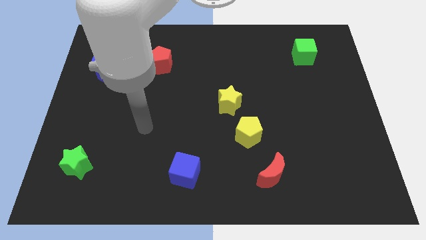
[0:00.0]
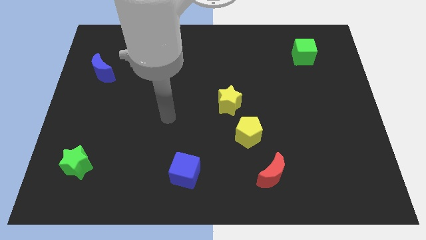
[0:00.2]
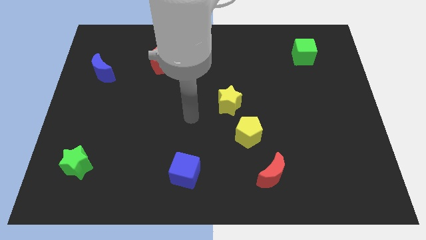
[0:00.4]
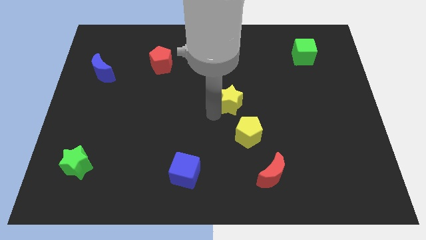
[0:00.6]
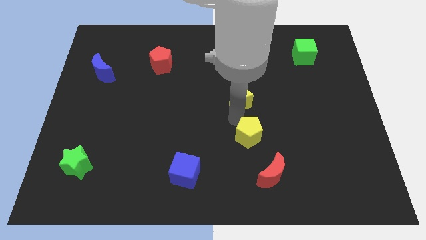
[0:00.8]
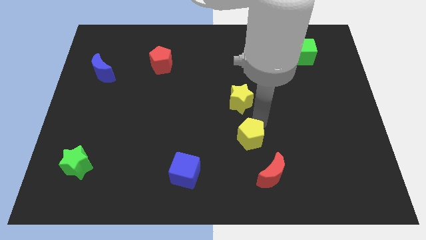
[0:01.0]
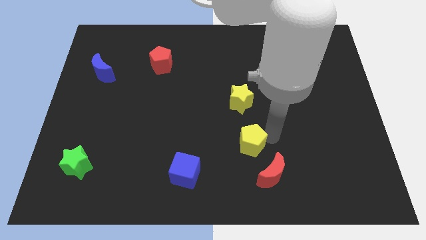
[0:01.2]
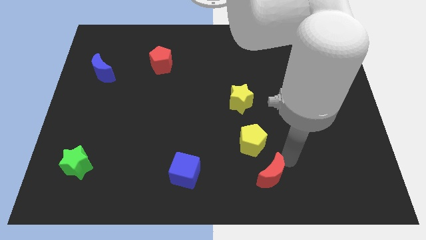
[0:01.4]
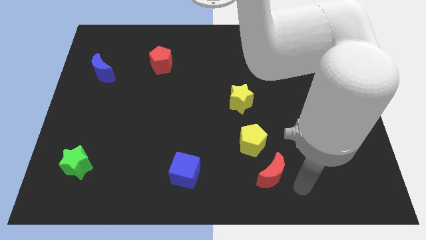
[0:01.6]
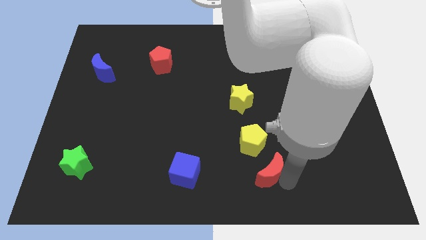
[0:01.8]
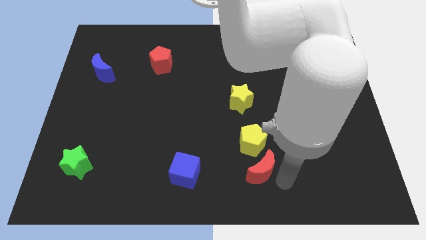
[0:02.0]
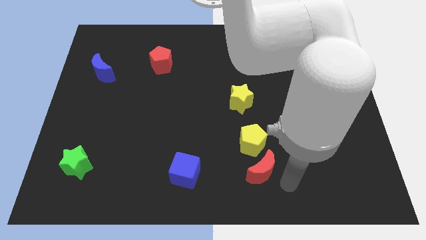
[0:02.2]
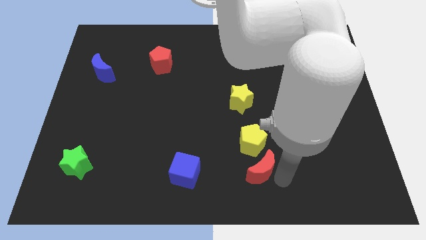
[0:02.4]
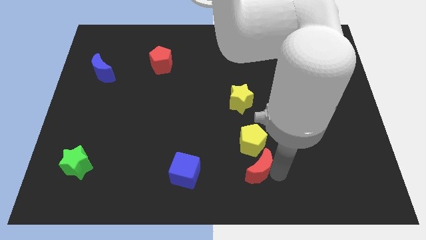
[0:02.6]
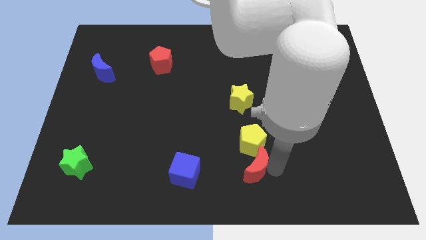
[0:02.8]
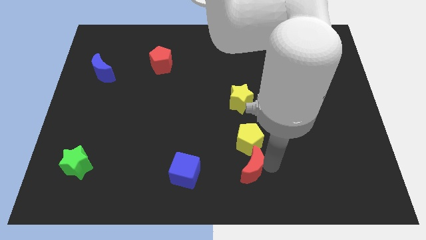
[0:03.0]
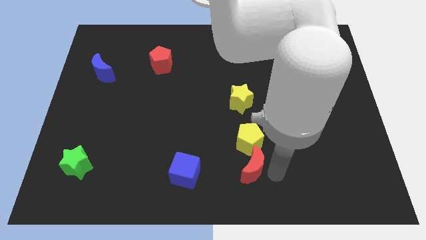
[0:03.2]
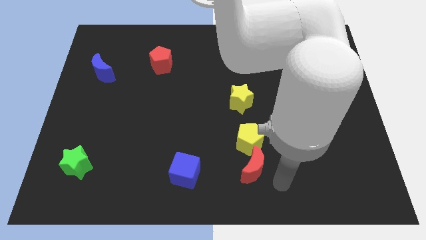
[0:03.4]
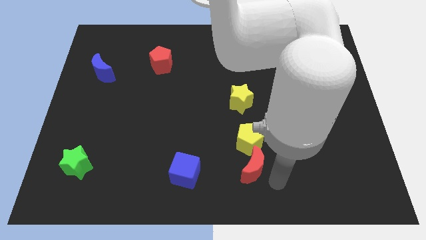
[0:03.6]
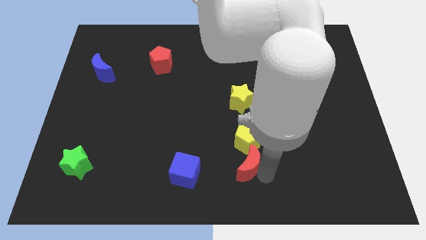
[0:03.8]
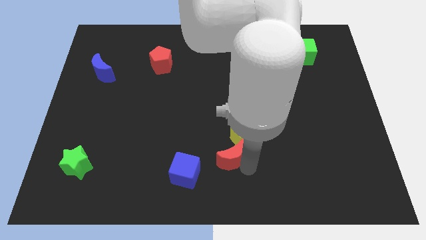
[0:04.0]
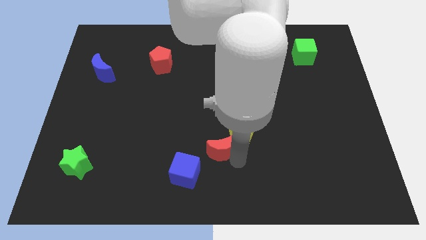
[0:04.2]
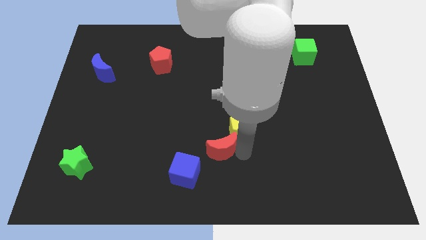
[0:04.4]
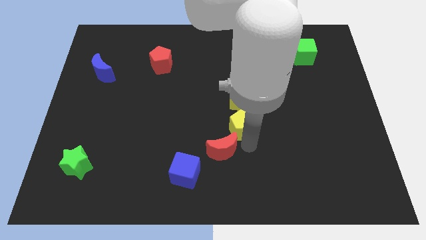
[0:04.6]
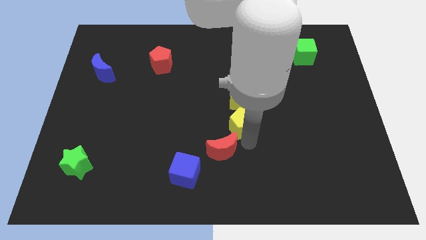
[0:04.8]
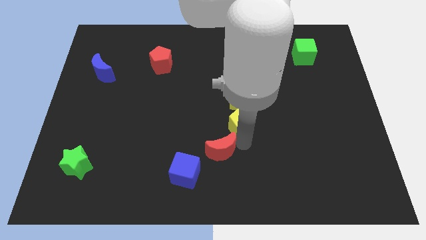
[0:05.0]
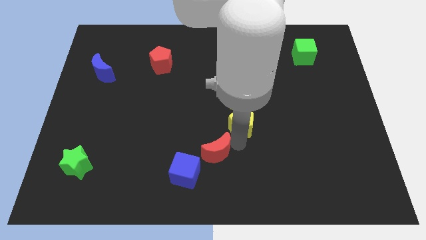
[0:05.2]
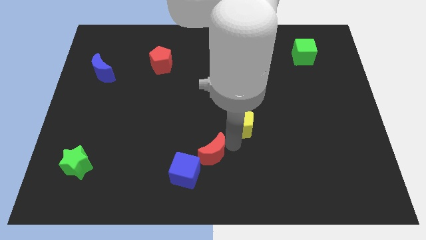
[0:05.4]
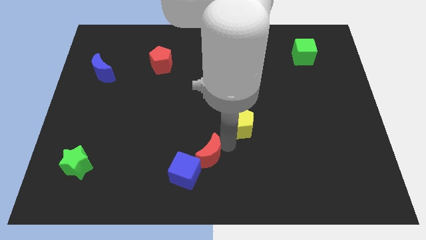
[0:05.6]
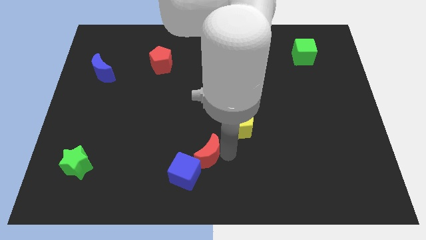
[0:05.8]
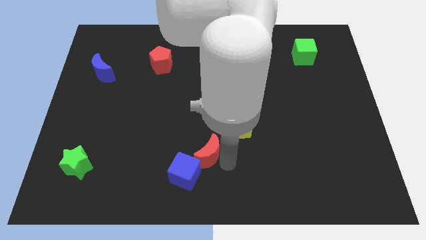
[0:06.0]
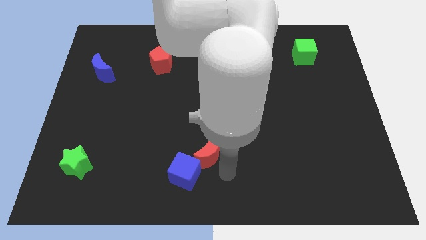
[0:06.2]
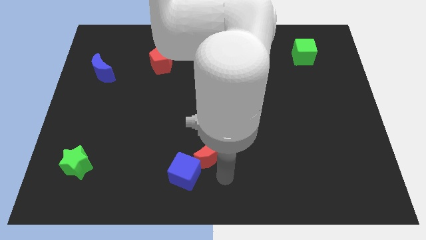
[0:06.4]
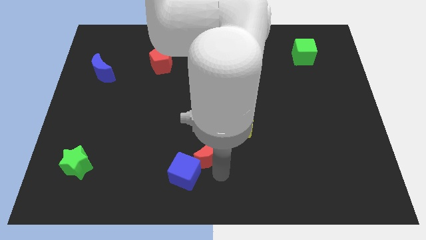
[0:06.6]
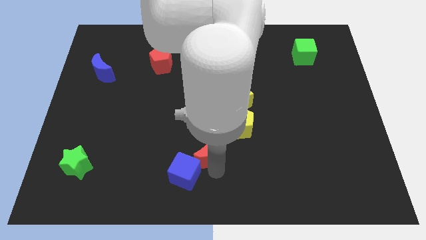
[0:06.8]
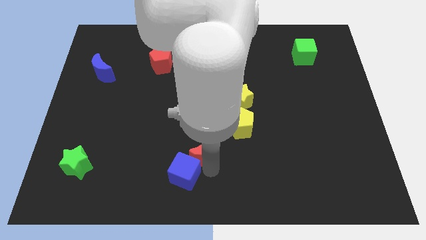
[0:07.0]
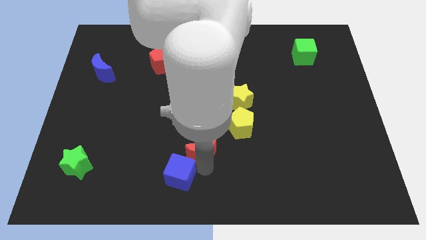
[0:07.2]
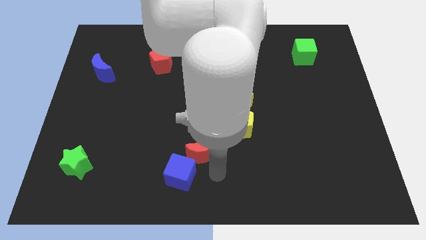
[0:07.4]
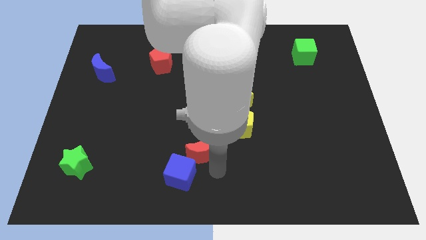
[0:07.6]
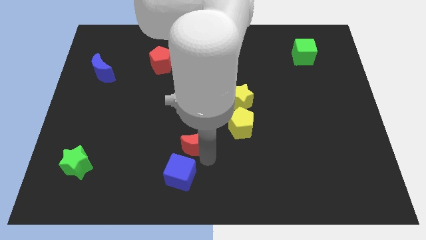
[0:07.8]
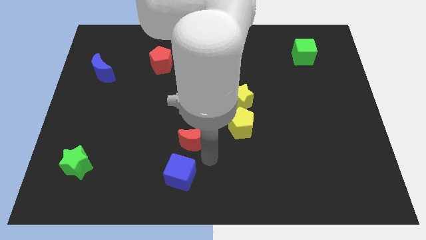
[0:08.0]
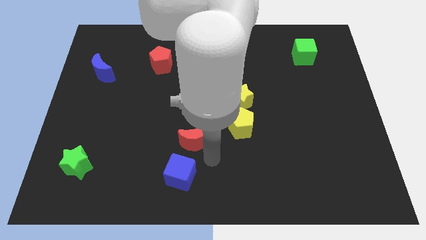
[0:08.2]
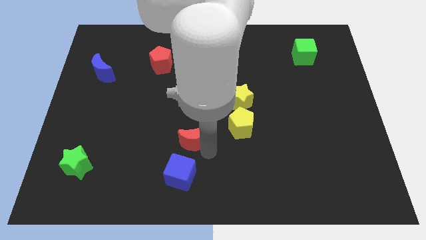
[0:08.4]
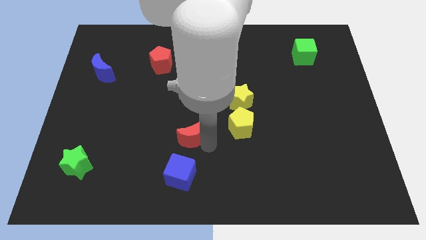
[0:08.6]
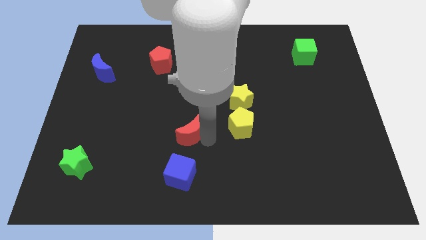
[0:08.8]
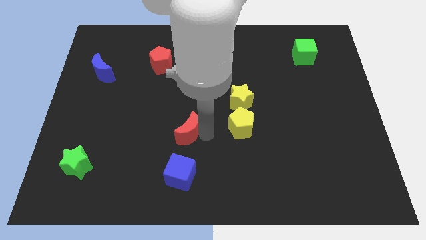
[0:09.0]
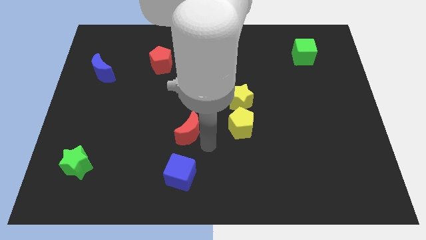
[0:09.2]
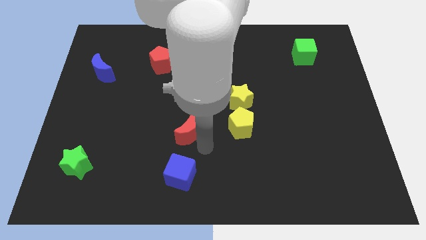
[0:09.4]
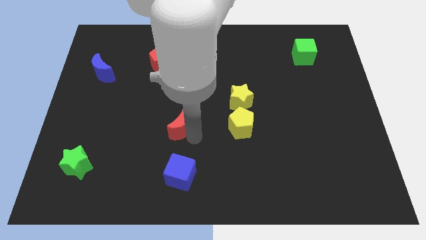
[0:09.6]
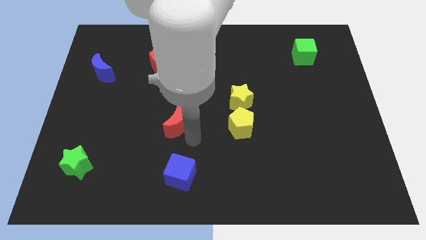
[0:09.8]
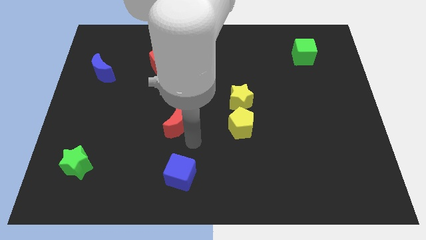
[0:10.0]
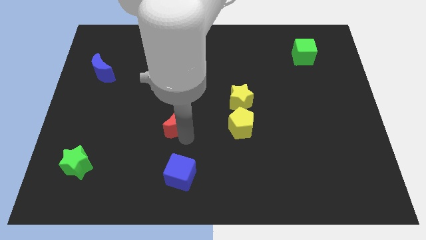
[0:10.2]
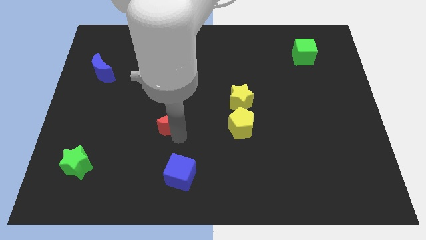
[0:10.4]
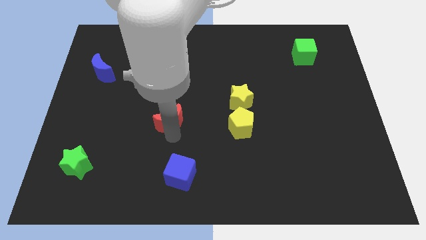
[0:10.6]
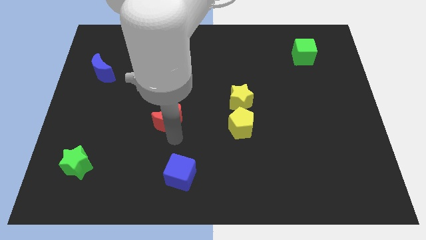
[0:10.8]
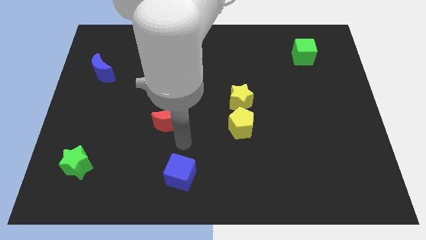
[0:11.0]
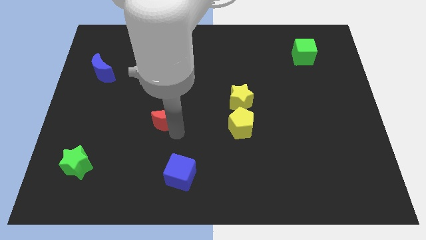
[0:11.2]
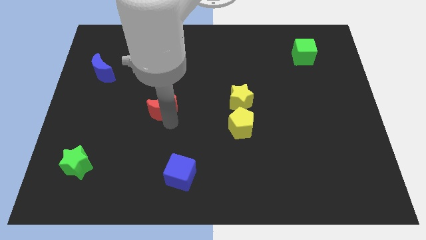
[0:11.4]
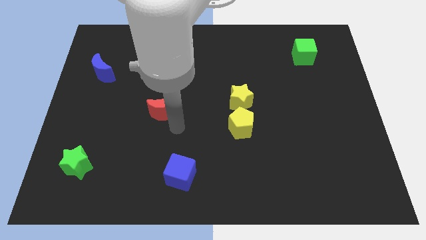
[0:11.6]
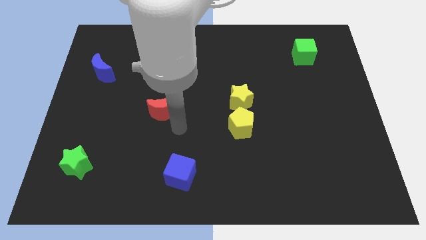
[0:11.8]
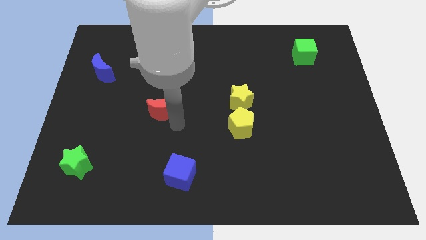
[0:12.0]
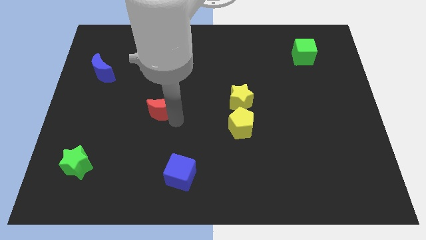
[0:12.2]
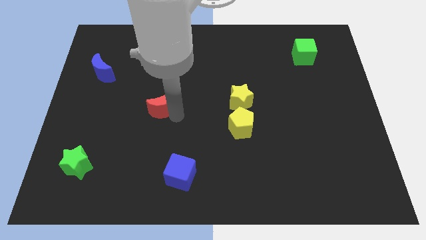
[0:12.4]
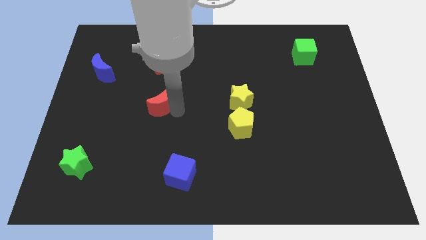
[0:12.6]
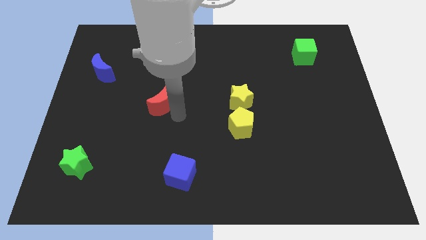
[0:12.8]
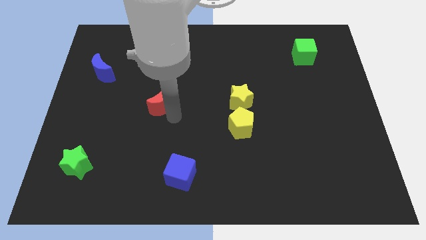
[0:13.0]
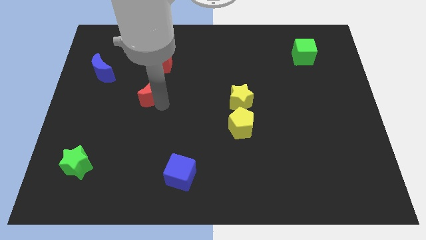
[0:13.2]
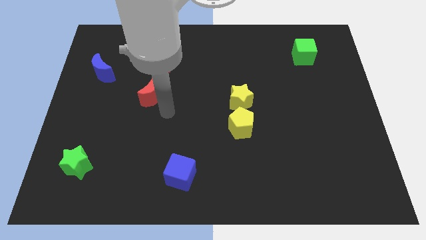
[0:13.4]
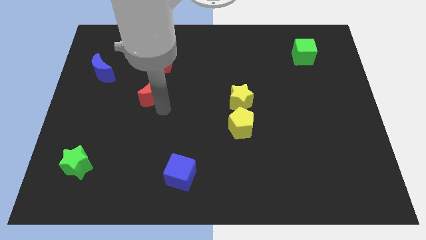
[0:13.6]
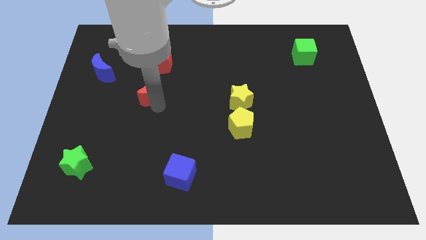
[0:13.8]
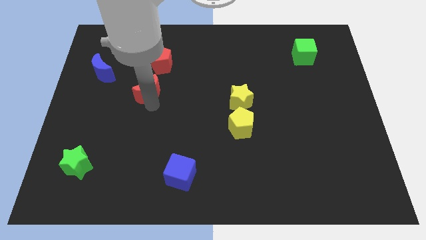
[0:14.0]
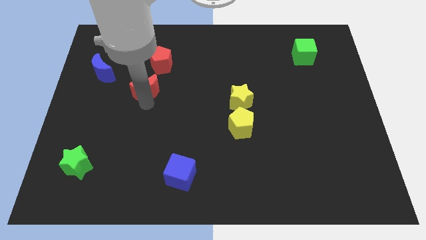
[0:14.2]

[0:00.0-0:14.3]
push the red moon to the bottom left of the red pentagon
